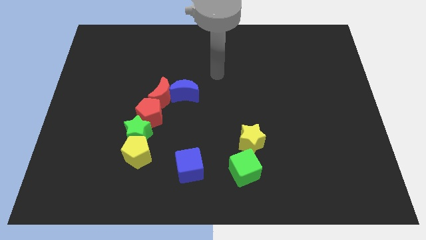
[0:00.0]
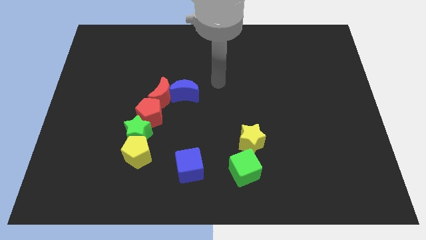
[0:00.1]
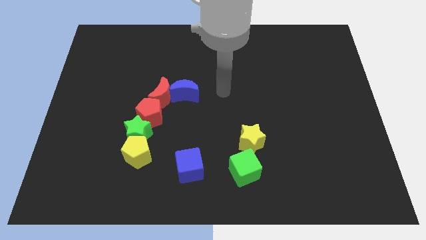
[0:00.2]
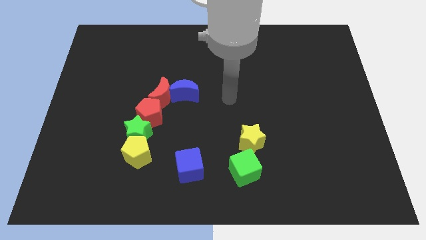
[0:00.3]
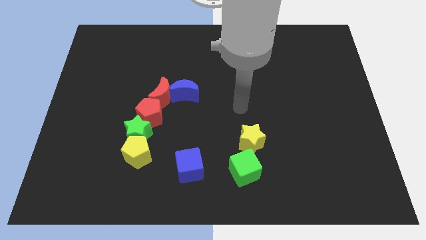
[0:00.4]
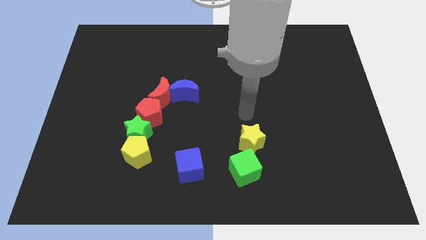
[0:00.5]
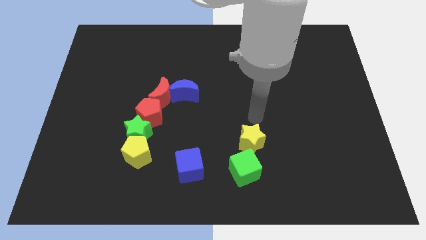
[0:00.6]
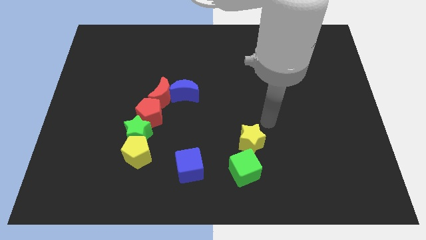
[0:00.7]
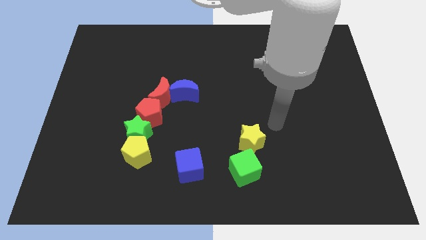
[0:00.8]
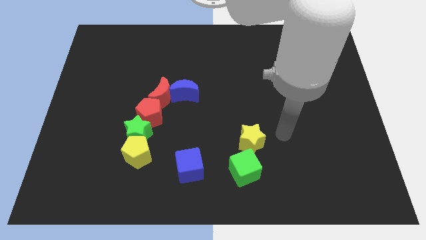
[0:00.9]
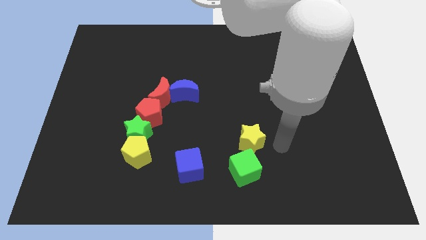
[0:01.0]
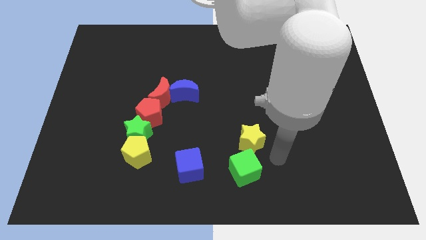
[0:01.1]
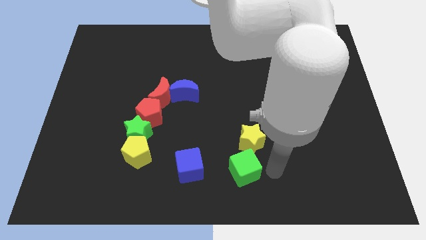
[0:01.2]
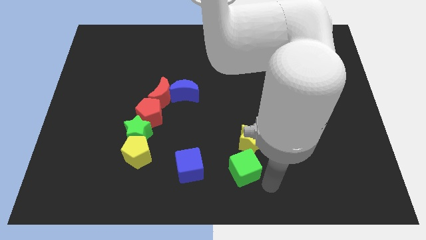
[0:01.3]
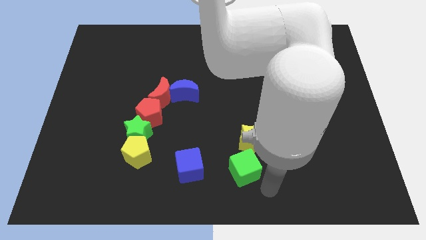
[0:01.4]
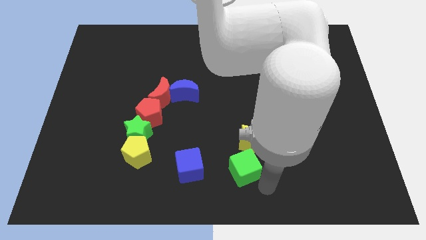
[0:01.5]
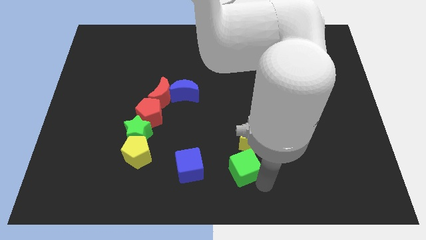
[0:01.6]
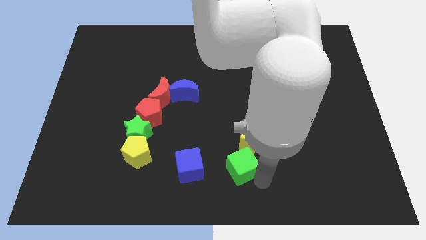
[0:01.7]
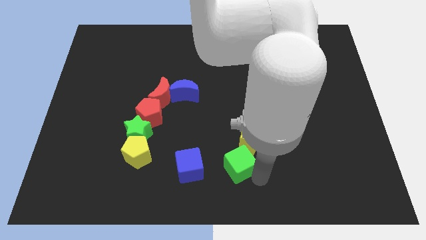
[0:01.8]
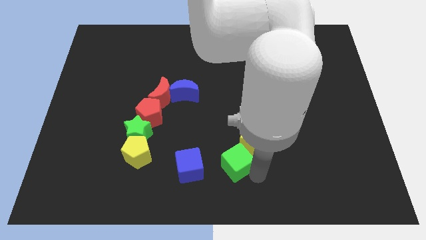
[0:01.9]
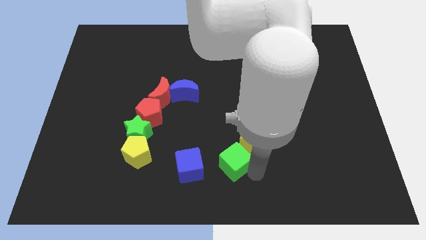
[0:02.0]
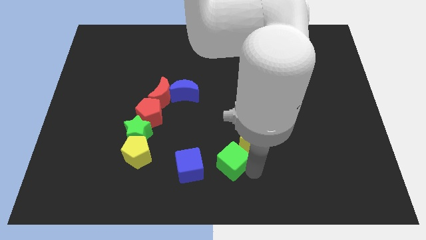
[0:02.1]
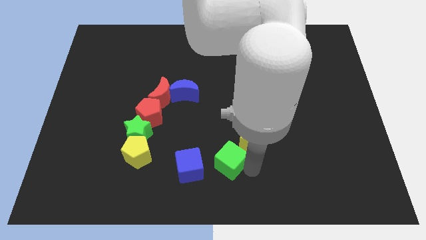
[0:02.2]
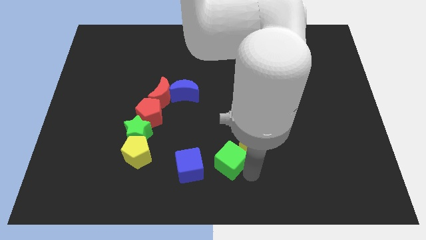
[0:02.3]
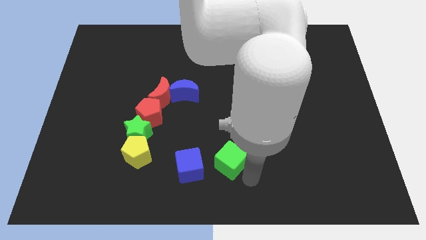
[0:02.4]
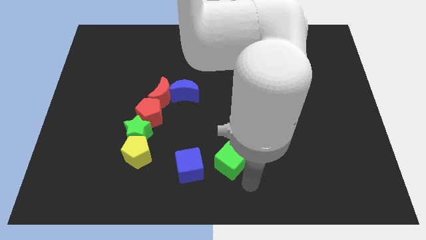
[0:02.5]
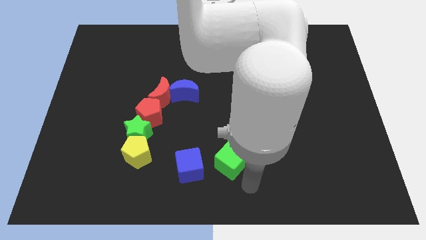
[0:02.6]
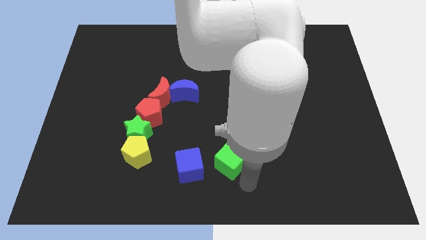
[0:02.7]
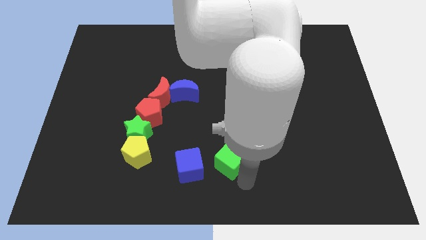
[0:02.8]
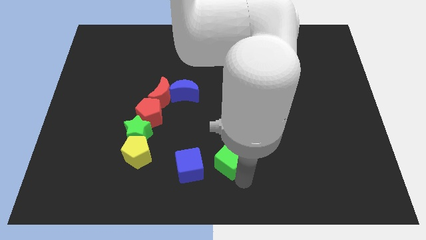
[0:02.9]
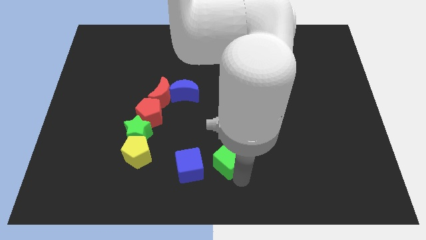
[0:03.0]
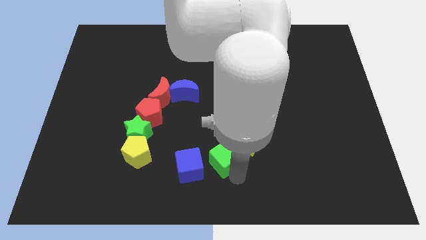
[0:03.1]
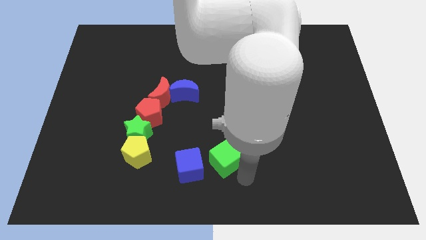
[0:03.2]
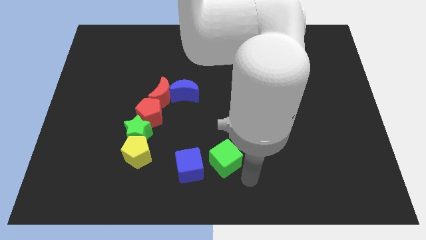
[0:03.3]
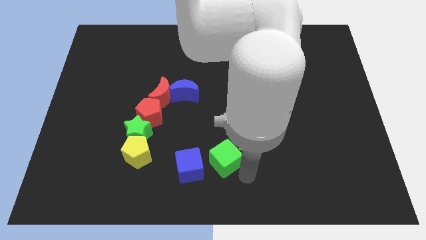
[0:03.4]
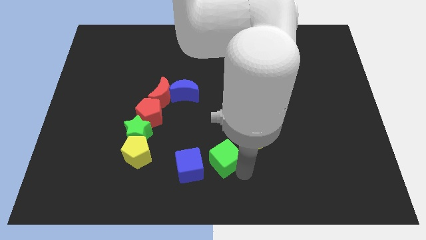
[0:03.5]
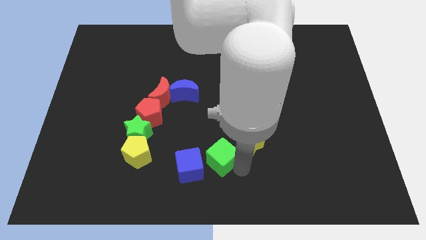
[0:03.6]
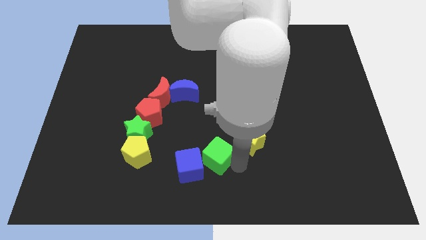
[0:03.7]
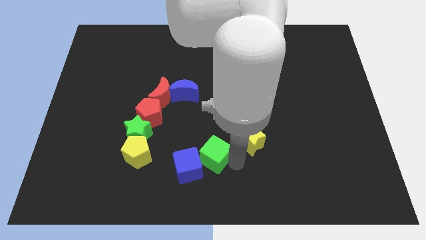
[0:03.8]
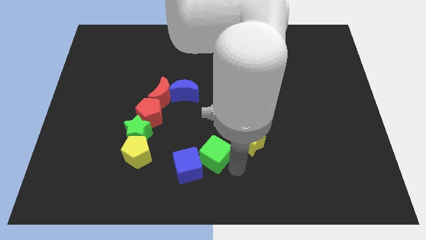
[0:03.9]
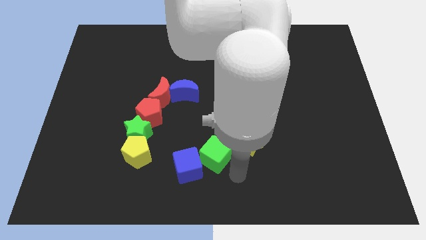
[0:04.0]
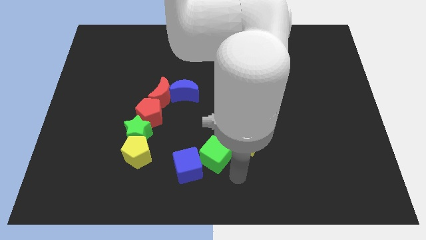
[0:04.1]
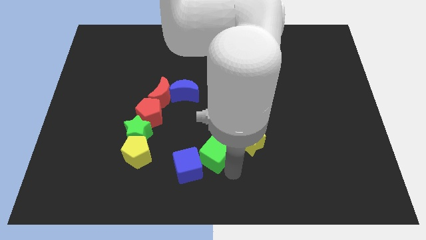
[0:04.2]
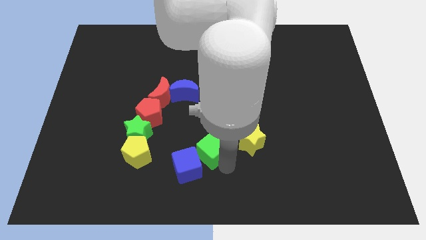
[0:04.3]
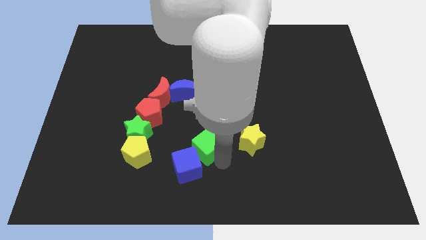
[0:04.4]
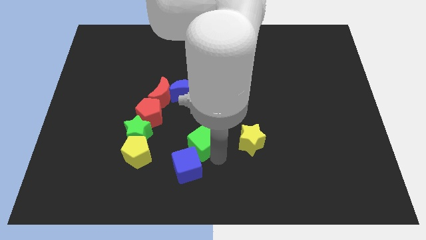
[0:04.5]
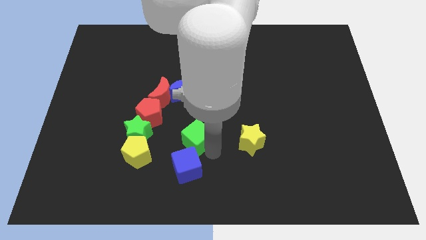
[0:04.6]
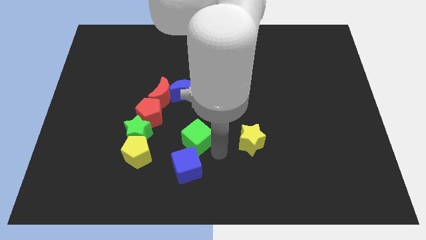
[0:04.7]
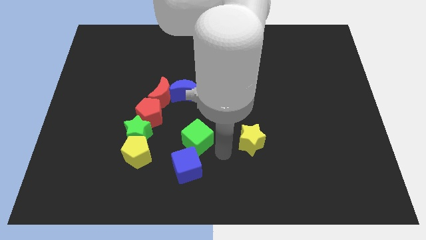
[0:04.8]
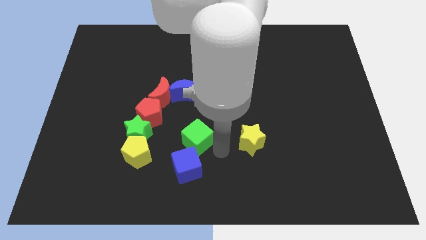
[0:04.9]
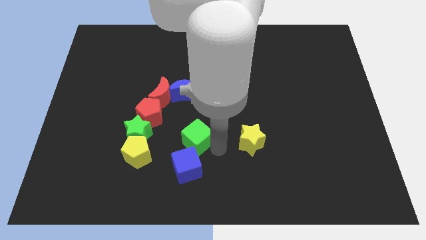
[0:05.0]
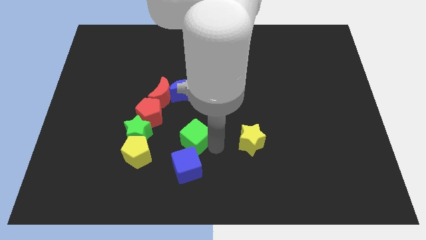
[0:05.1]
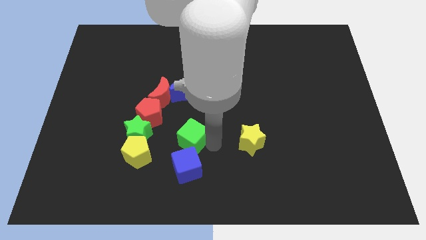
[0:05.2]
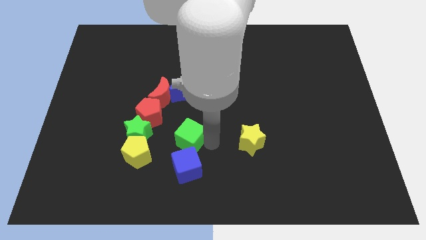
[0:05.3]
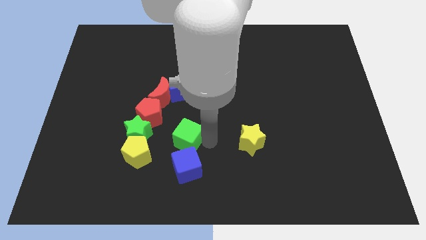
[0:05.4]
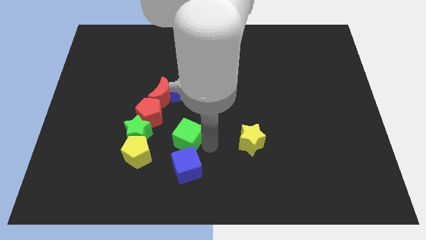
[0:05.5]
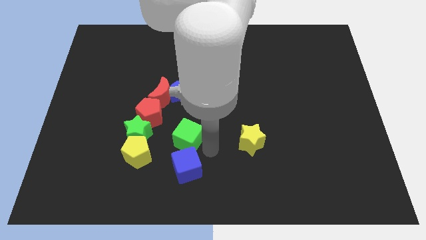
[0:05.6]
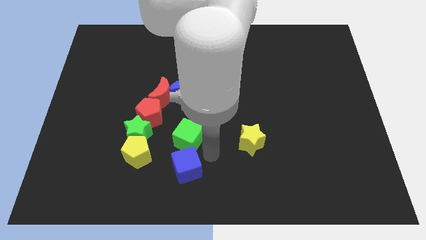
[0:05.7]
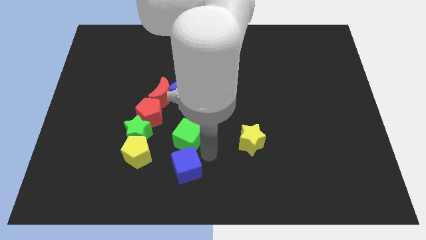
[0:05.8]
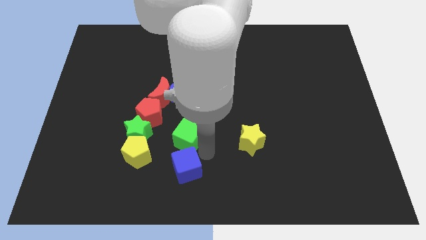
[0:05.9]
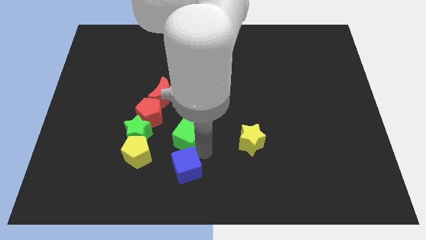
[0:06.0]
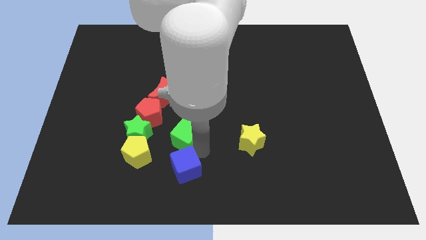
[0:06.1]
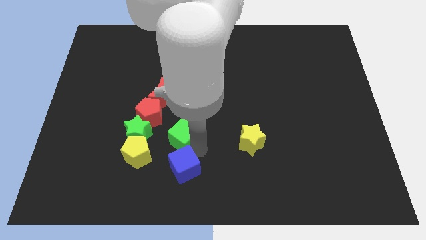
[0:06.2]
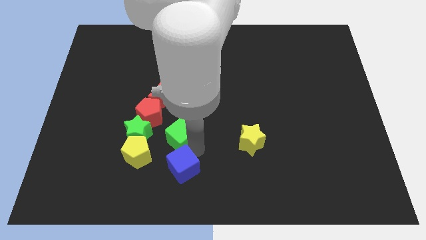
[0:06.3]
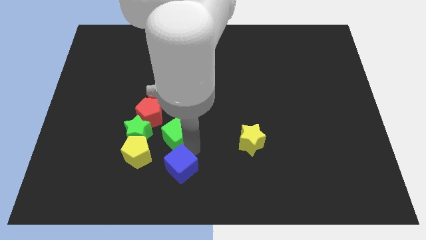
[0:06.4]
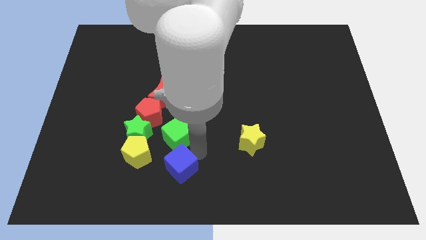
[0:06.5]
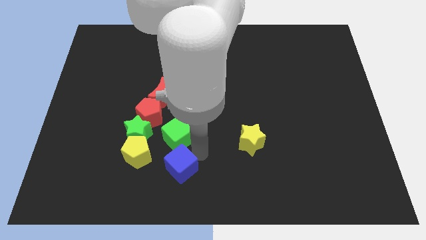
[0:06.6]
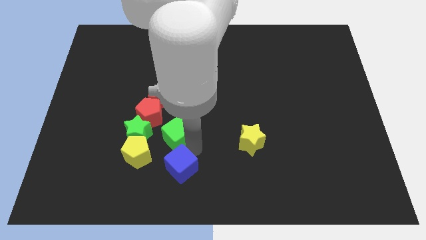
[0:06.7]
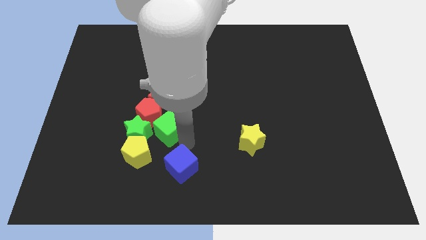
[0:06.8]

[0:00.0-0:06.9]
slide the green cube towards the red pentagon
